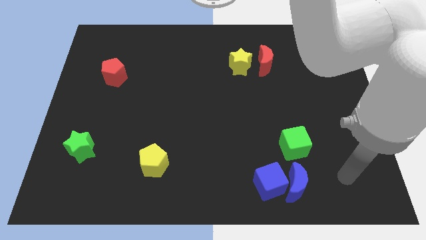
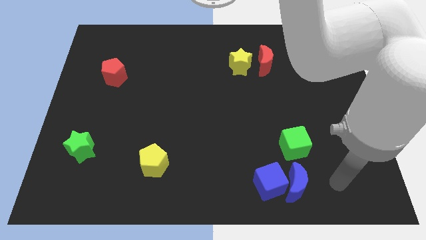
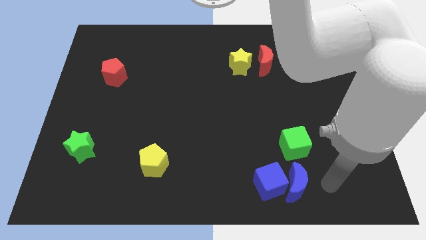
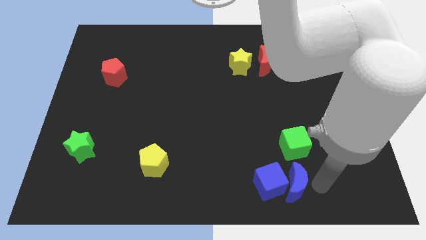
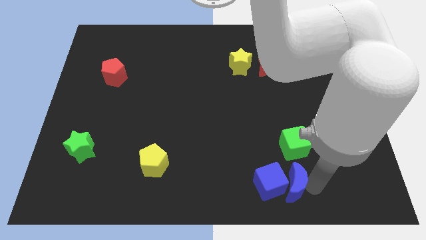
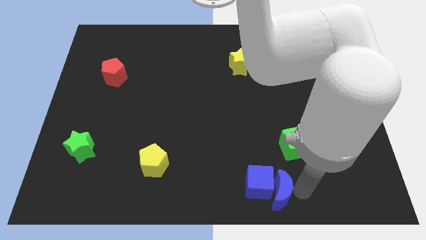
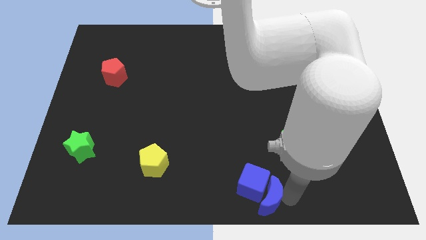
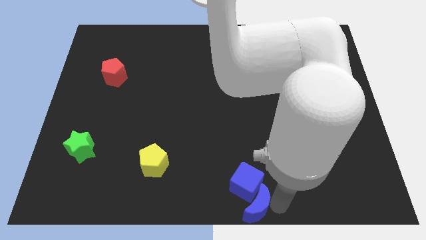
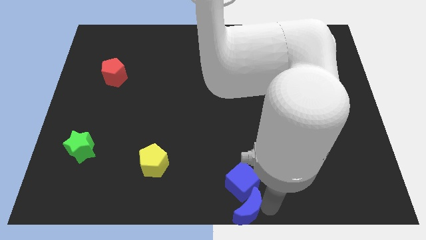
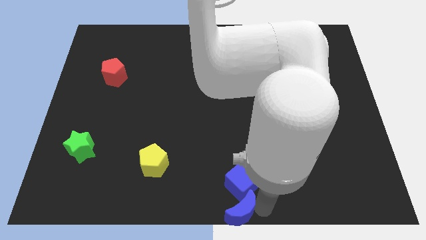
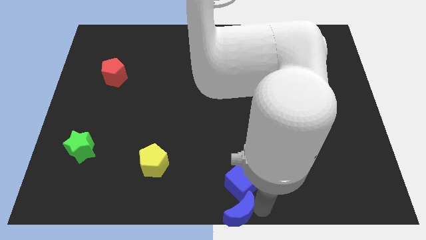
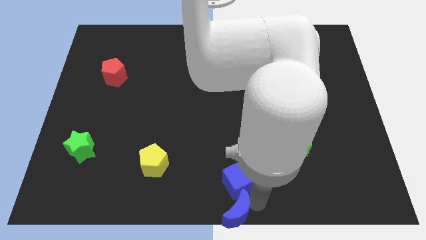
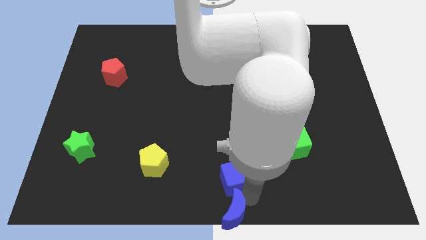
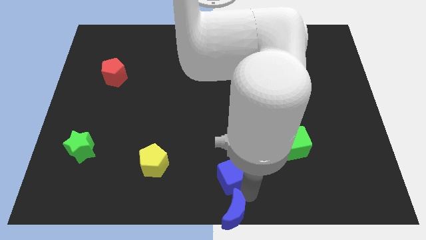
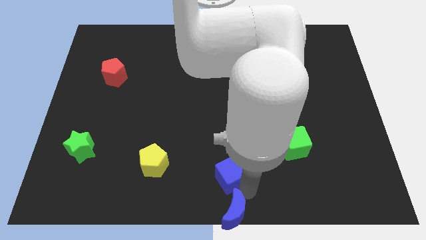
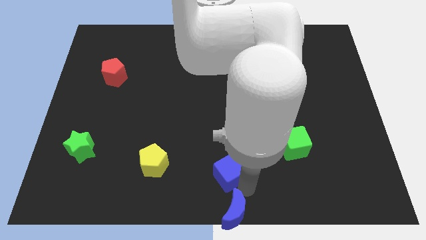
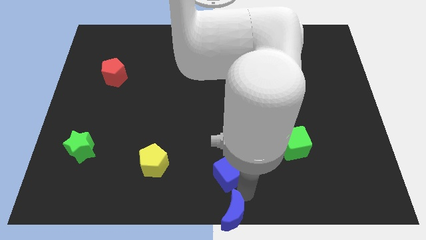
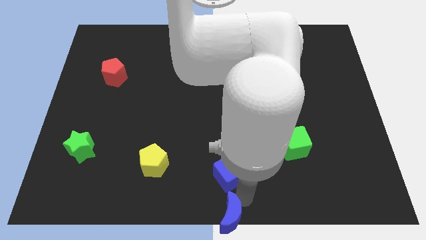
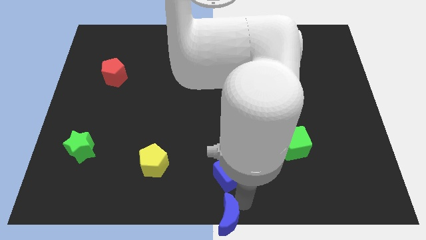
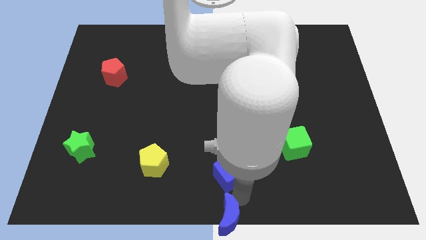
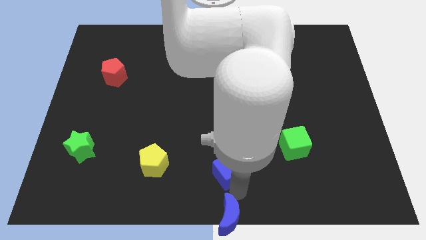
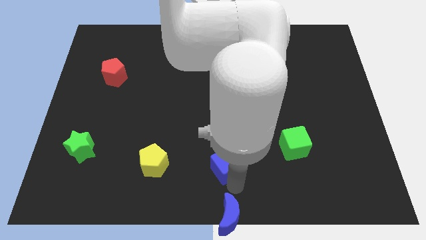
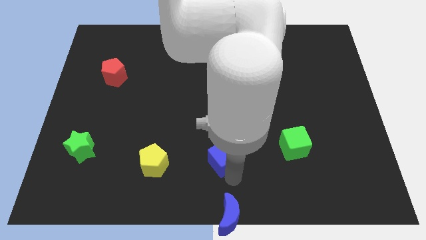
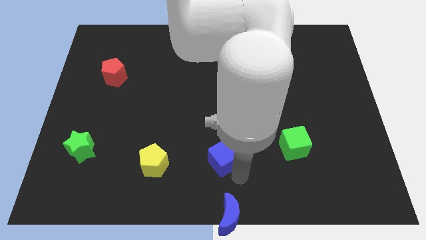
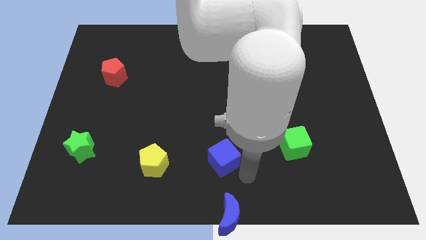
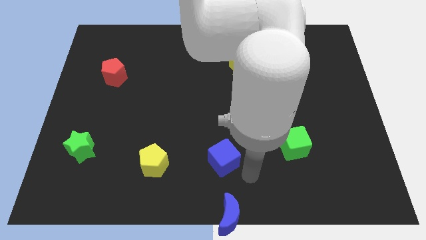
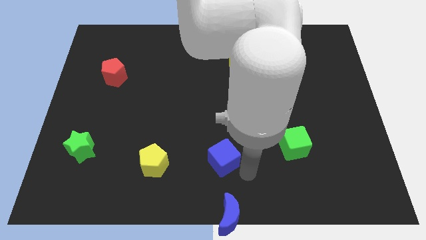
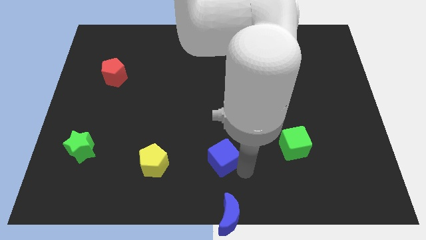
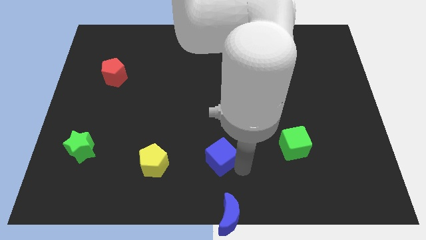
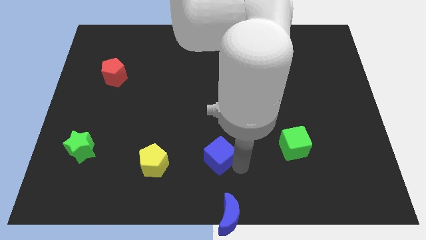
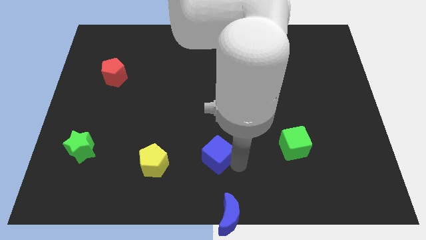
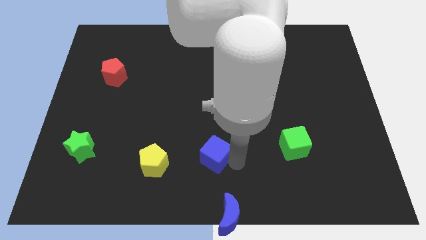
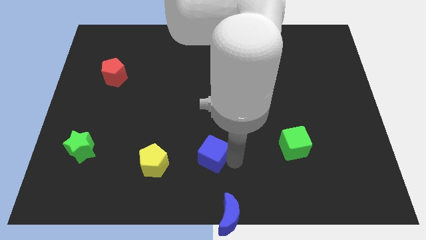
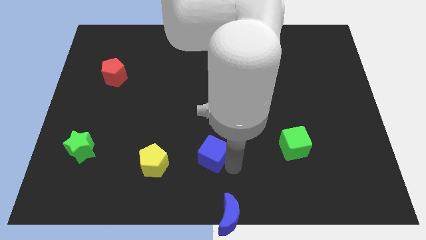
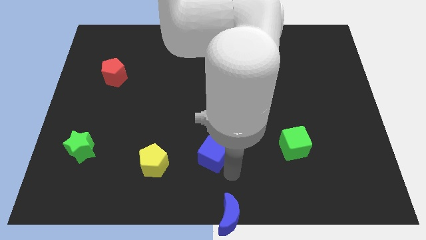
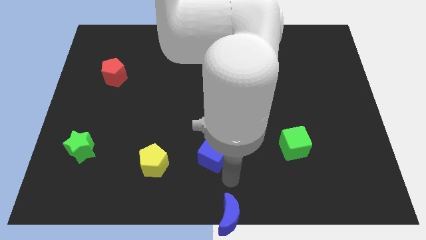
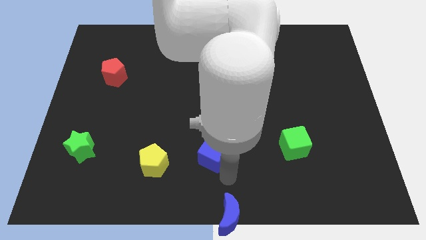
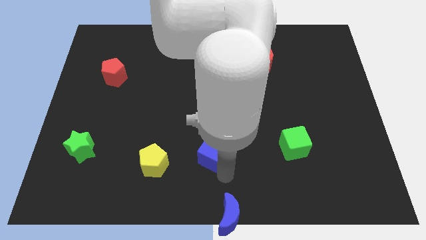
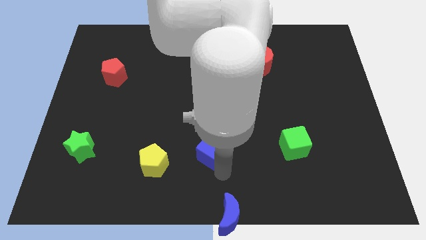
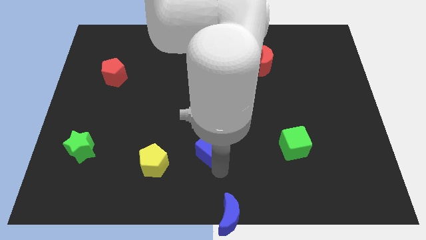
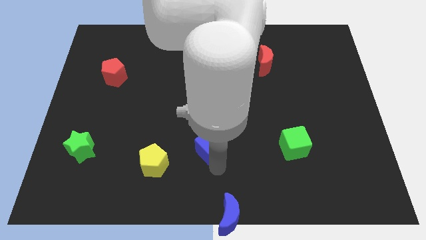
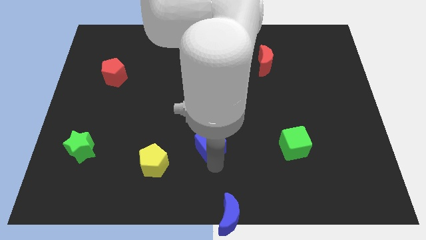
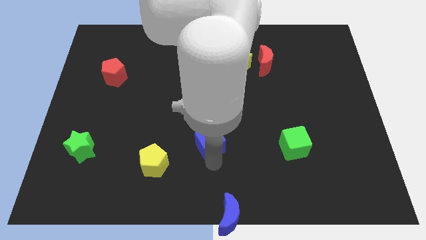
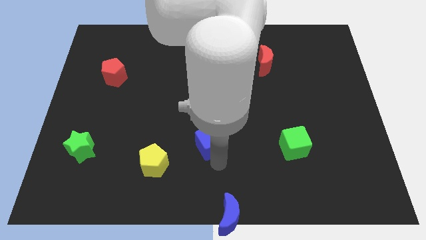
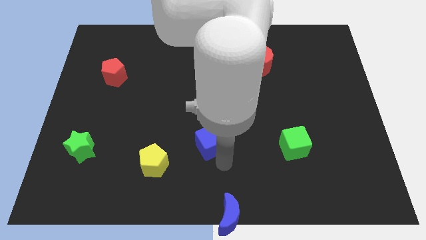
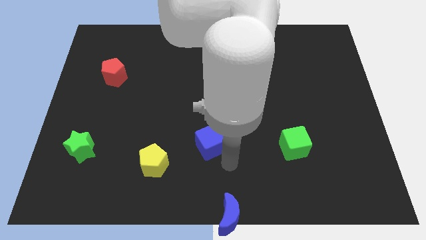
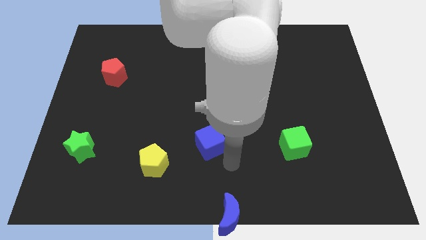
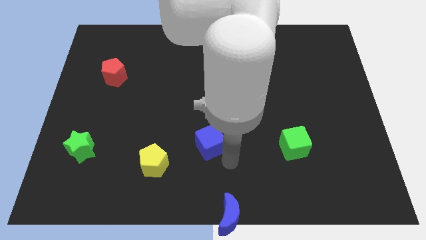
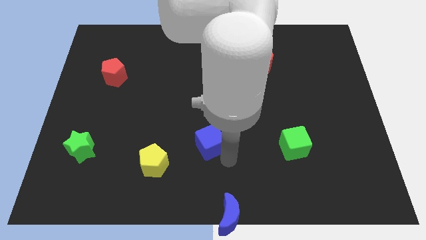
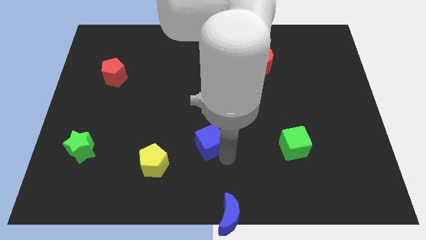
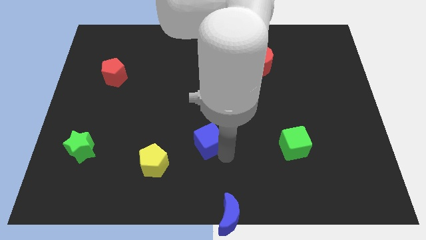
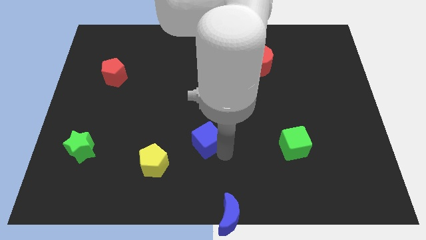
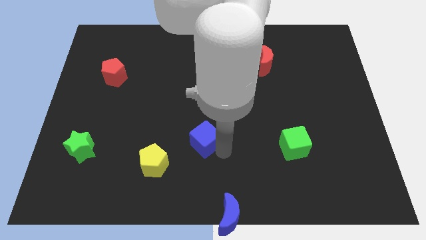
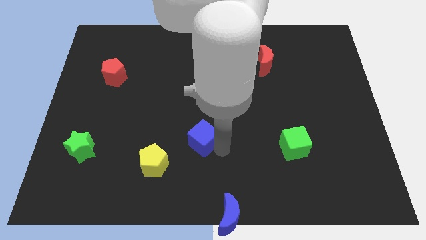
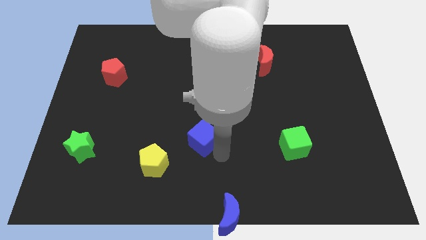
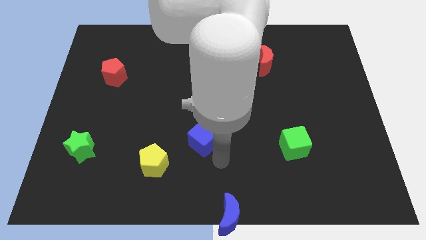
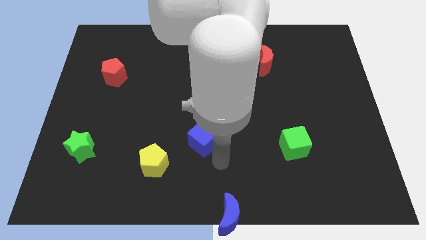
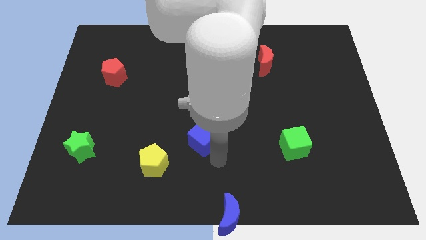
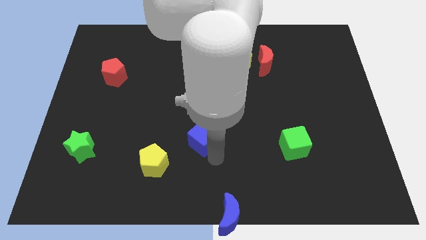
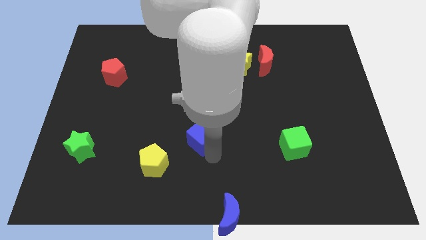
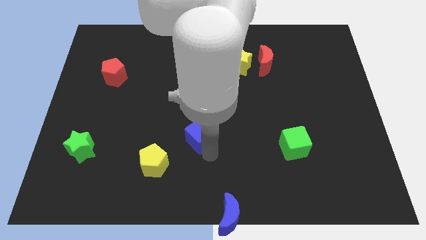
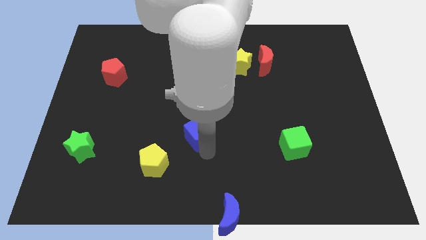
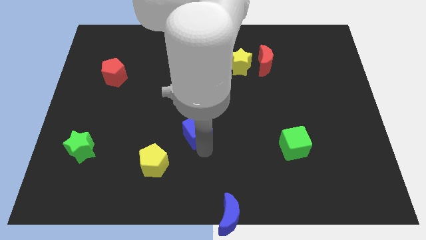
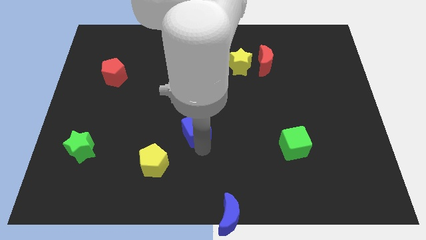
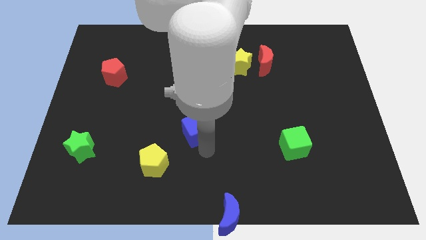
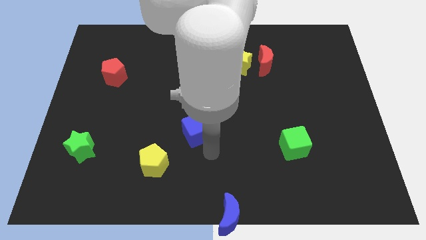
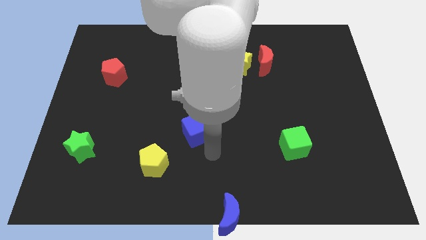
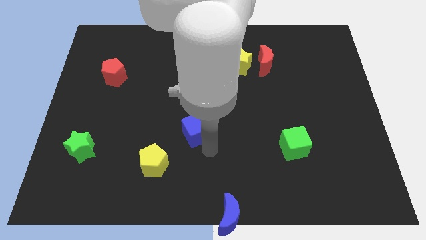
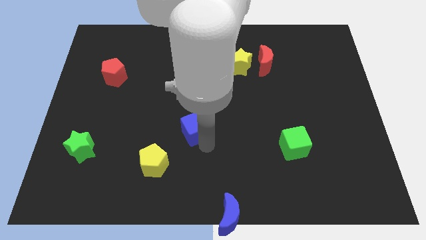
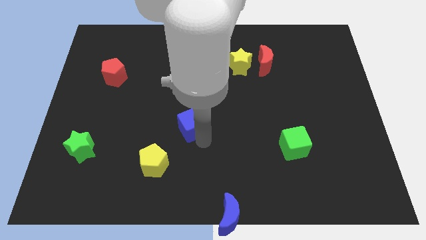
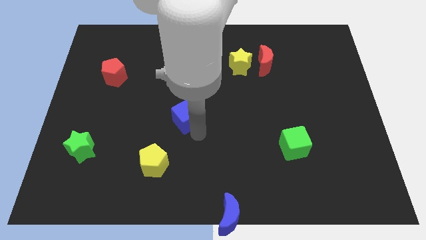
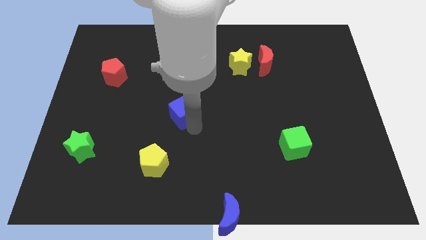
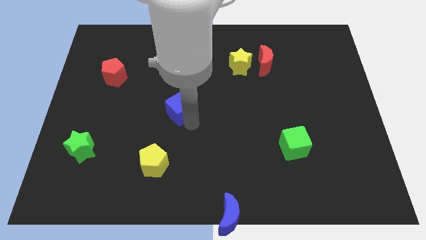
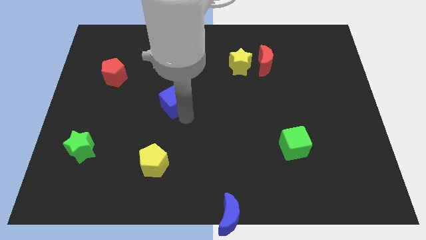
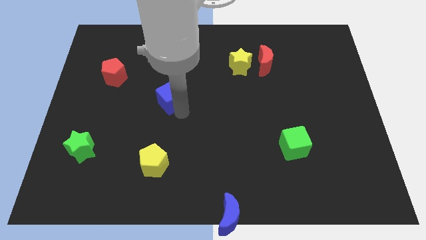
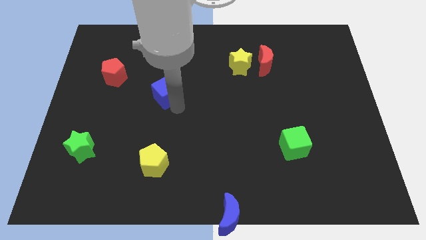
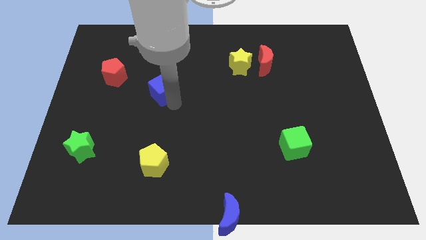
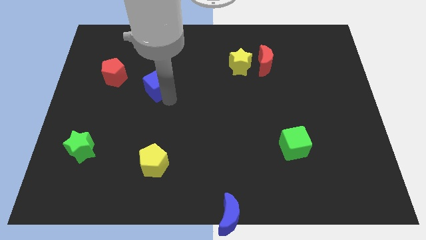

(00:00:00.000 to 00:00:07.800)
put the blue cube just right of the red pentagon
